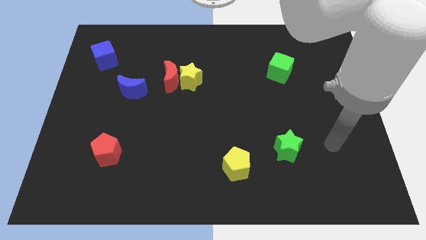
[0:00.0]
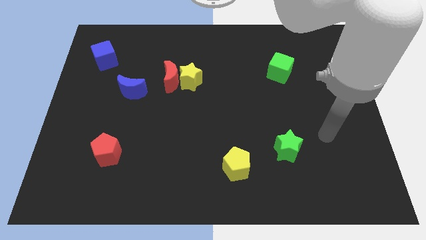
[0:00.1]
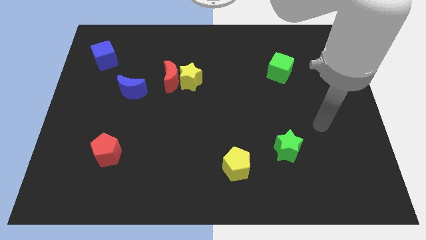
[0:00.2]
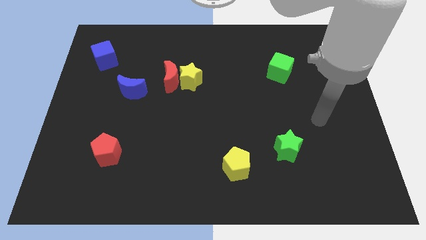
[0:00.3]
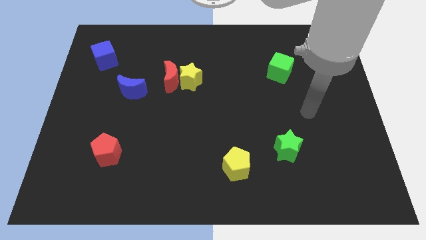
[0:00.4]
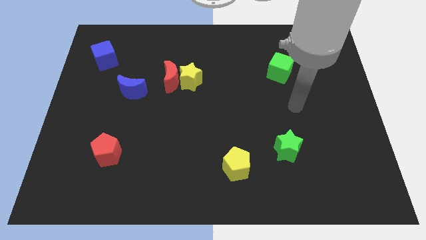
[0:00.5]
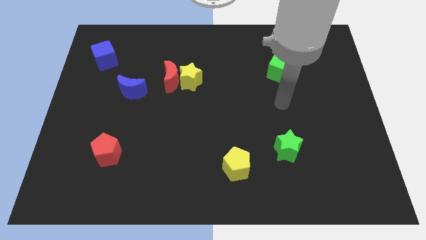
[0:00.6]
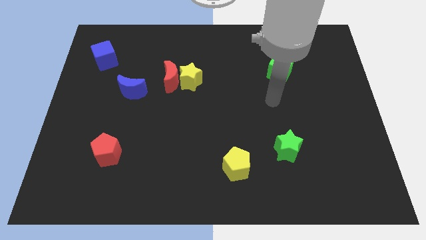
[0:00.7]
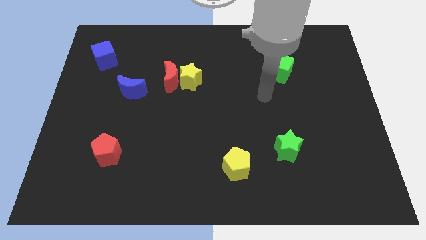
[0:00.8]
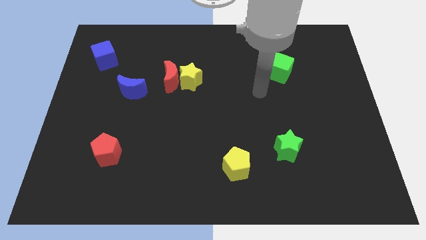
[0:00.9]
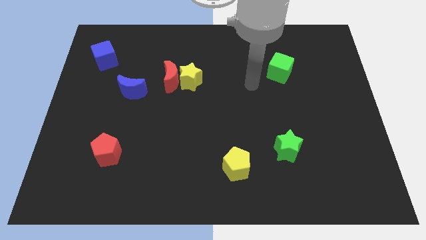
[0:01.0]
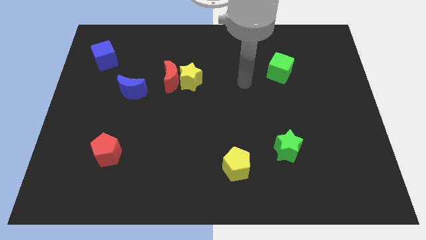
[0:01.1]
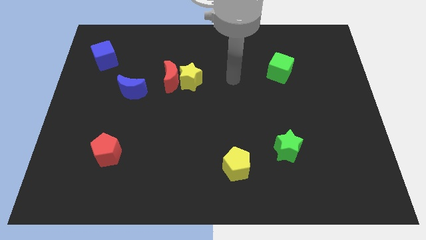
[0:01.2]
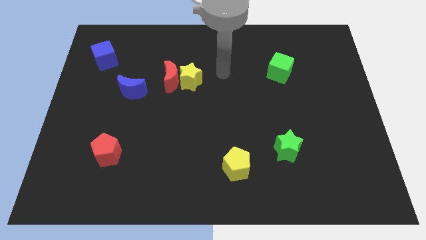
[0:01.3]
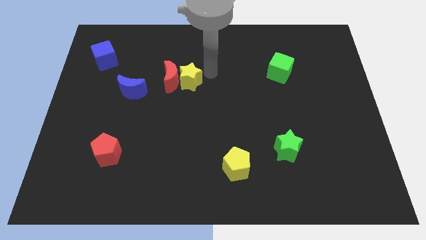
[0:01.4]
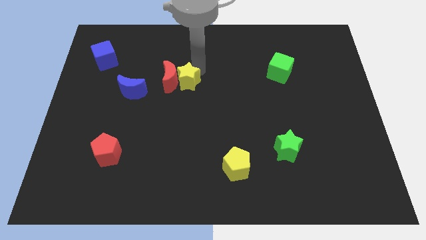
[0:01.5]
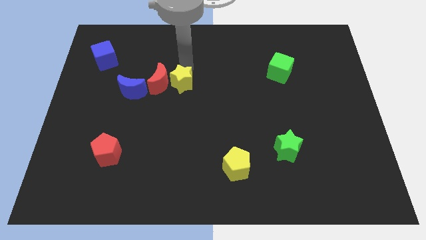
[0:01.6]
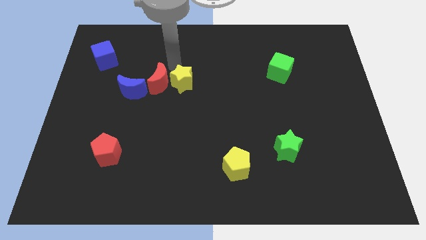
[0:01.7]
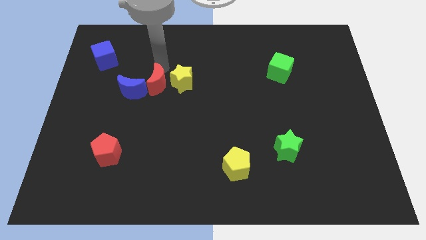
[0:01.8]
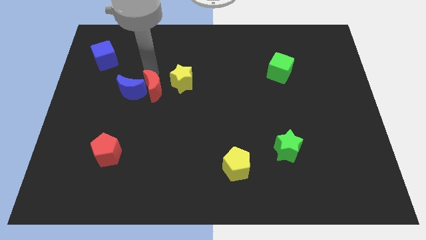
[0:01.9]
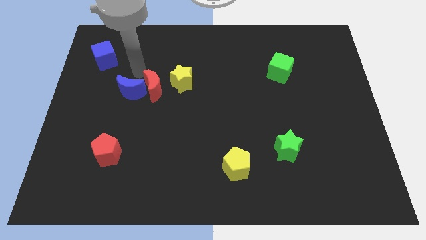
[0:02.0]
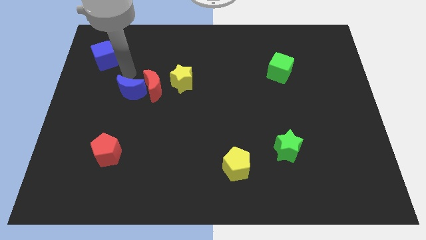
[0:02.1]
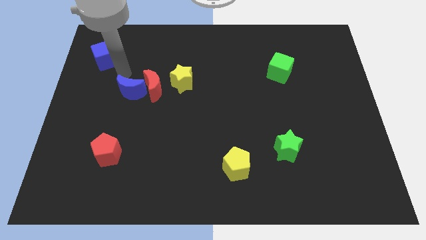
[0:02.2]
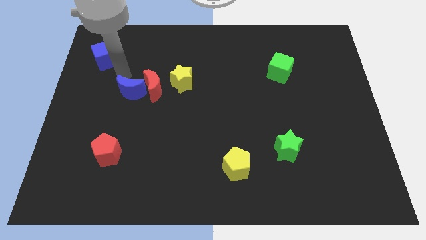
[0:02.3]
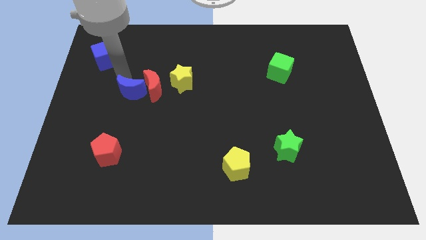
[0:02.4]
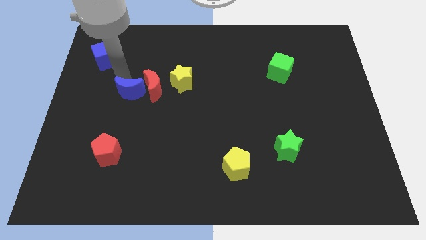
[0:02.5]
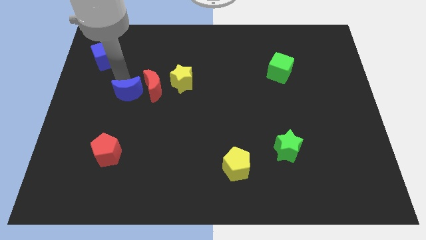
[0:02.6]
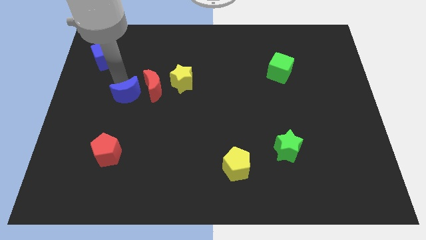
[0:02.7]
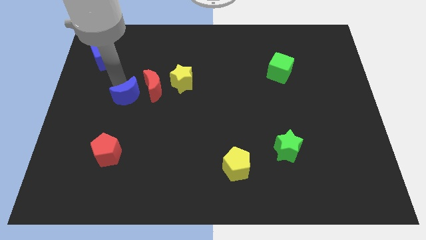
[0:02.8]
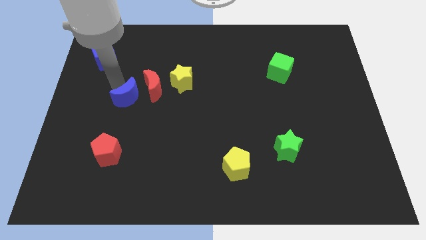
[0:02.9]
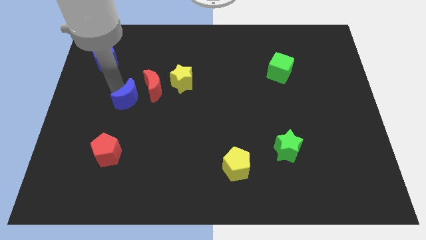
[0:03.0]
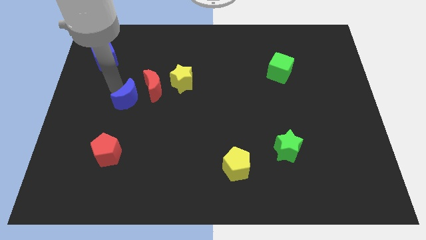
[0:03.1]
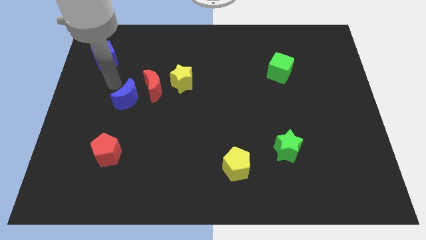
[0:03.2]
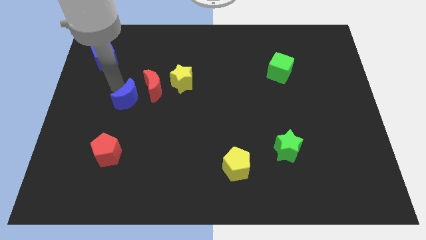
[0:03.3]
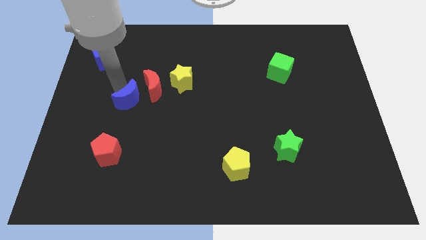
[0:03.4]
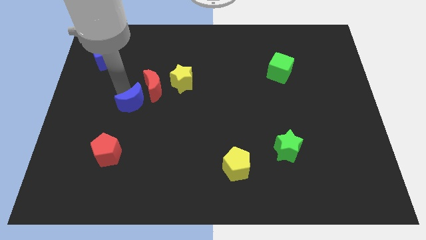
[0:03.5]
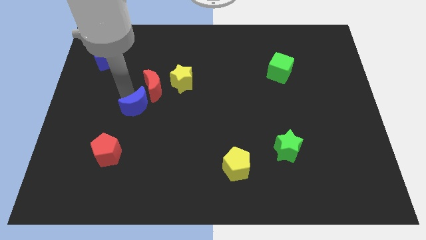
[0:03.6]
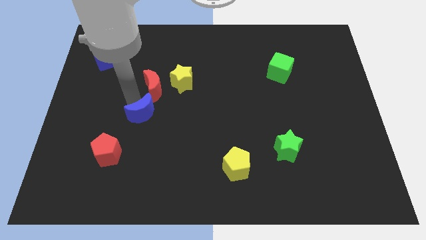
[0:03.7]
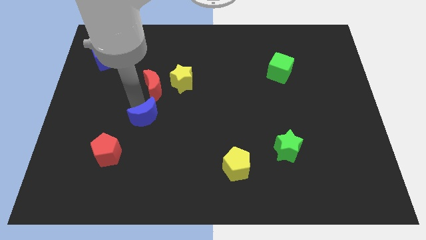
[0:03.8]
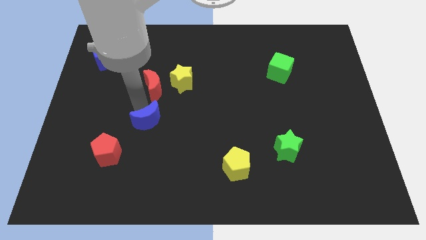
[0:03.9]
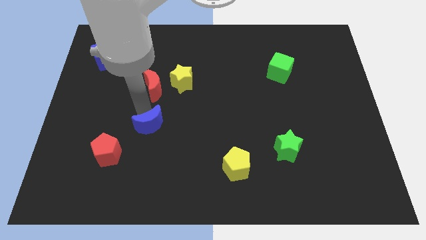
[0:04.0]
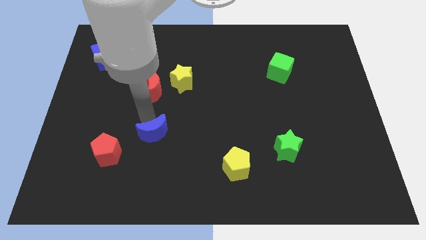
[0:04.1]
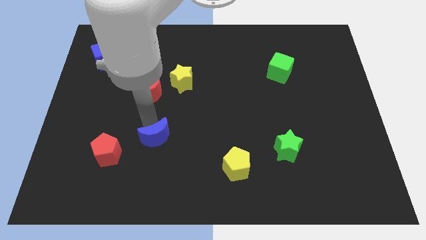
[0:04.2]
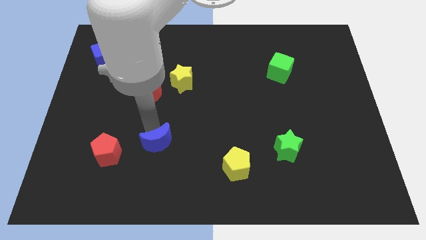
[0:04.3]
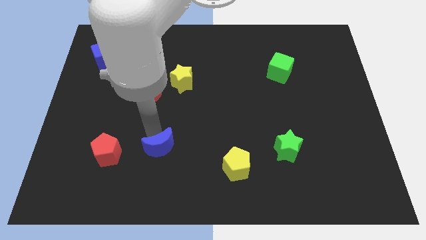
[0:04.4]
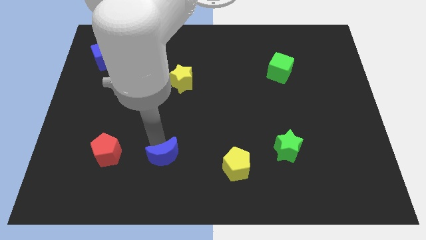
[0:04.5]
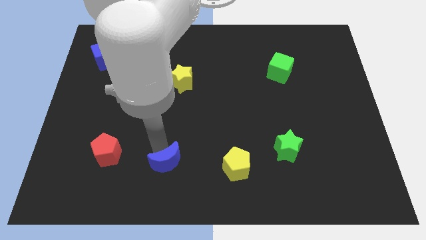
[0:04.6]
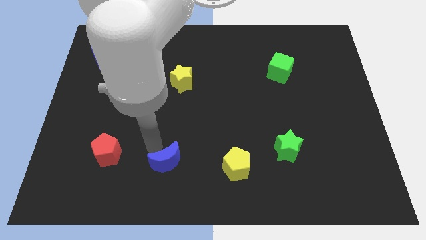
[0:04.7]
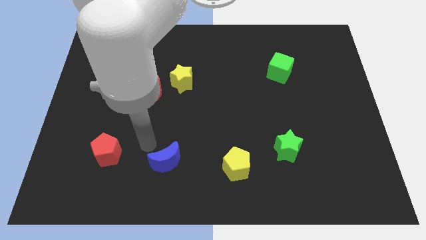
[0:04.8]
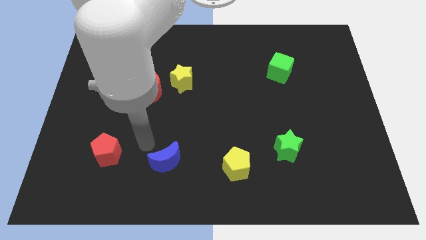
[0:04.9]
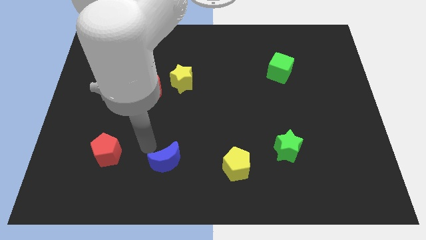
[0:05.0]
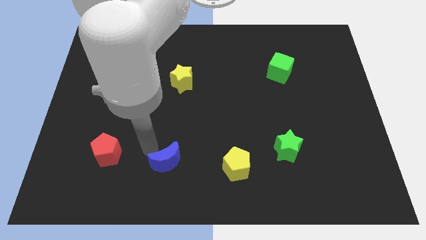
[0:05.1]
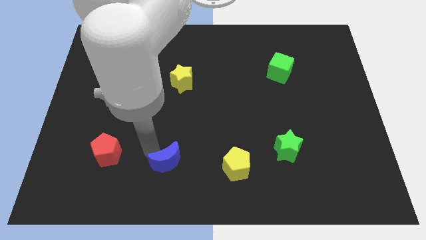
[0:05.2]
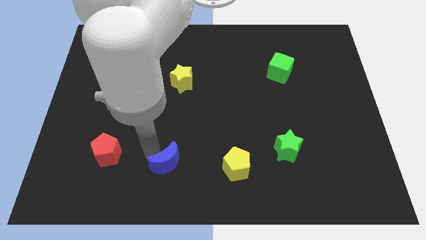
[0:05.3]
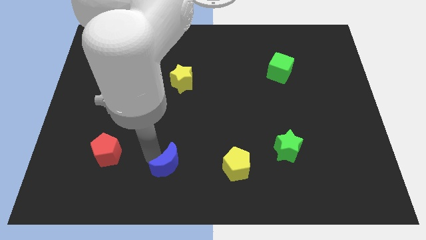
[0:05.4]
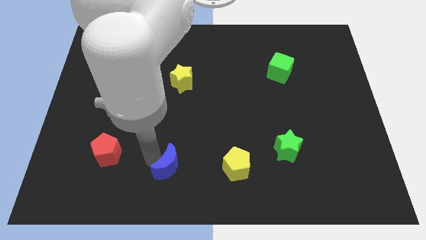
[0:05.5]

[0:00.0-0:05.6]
slide the blue moon to the bottom side

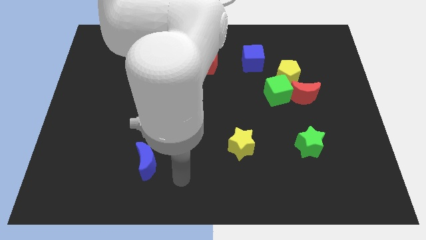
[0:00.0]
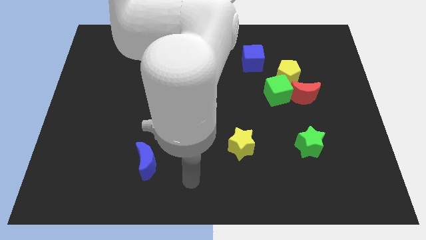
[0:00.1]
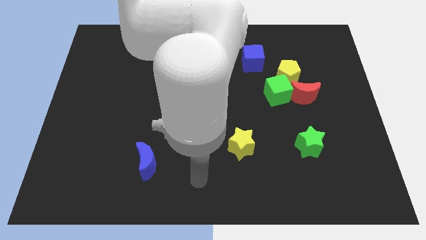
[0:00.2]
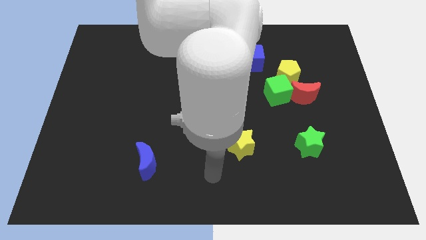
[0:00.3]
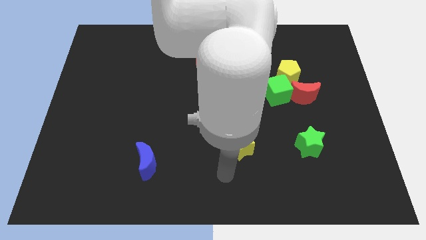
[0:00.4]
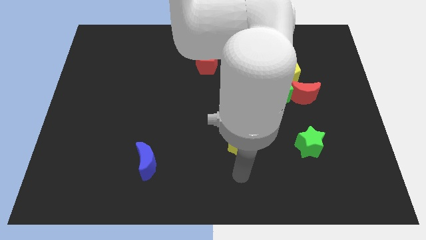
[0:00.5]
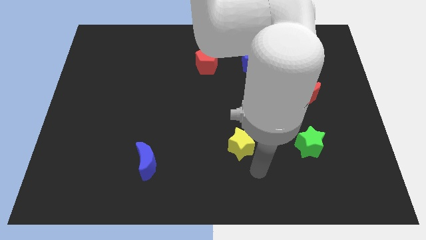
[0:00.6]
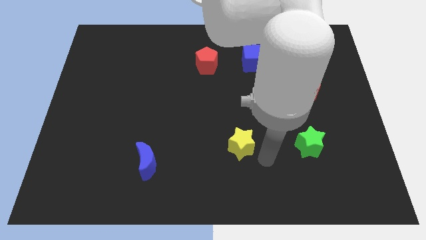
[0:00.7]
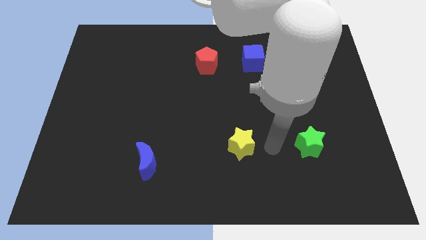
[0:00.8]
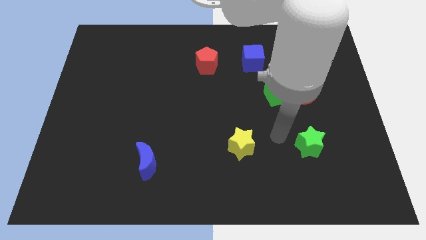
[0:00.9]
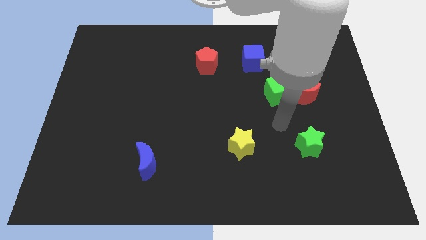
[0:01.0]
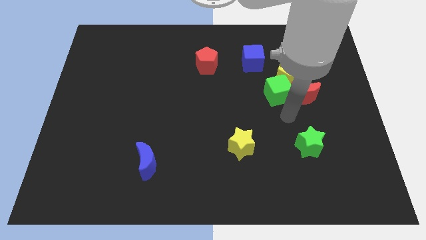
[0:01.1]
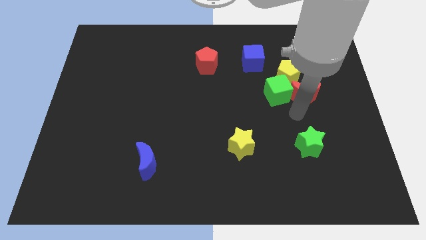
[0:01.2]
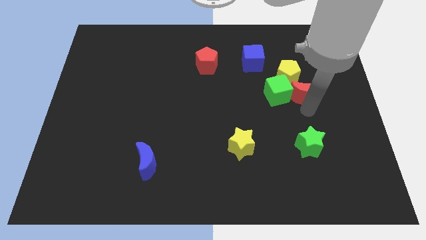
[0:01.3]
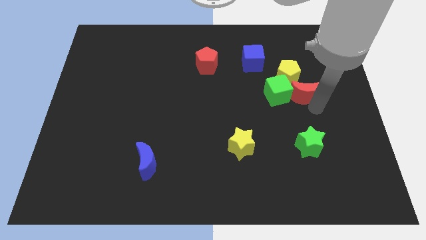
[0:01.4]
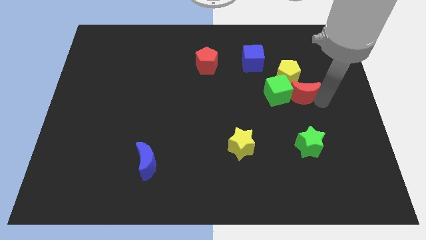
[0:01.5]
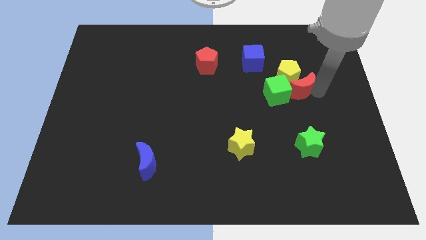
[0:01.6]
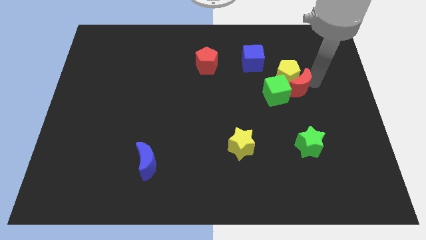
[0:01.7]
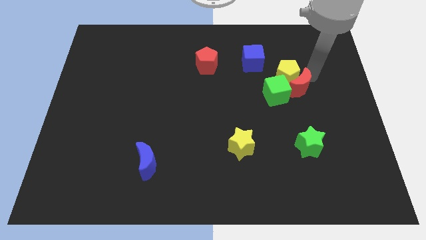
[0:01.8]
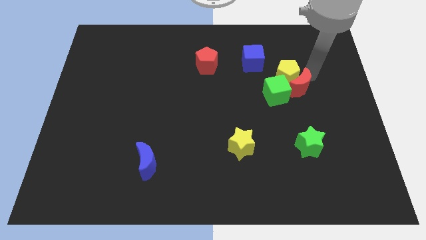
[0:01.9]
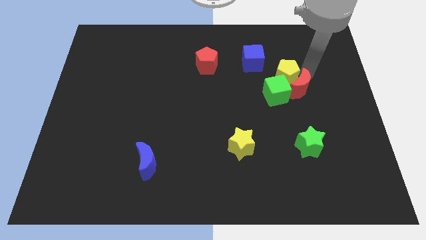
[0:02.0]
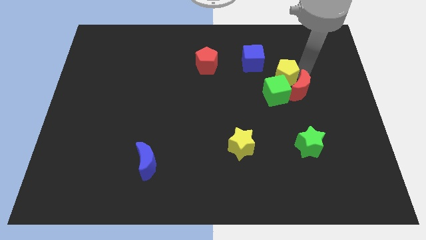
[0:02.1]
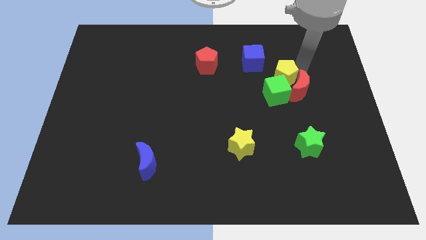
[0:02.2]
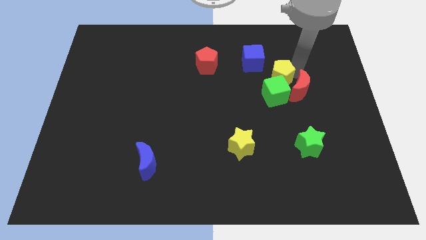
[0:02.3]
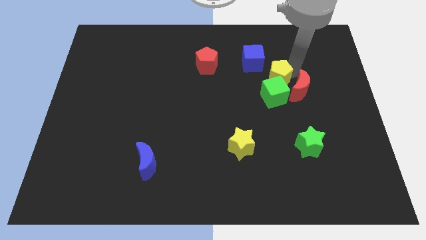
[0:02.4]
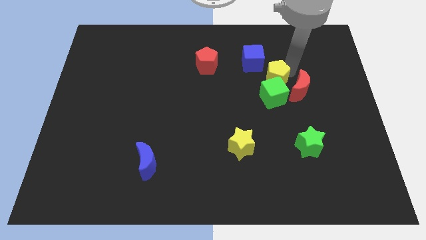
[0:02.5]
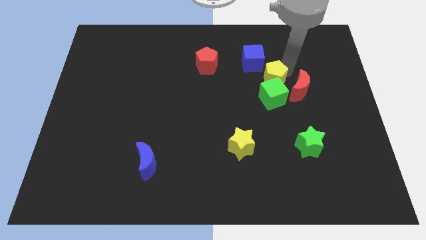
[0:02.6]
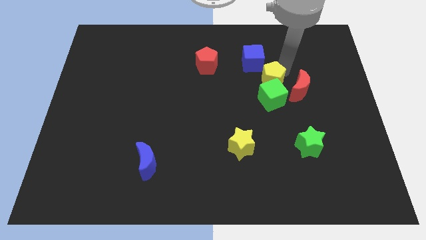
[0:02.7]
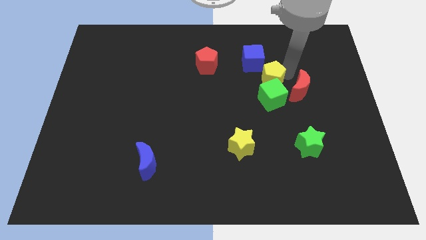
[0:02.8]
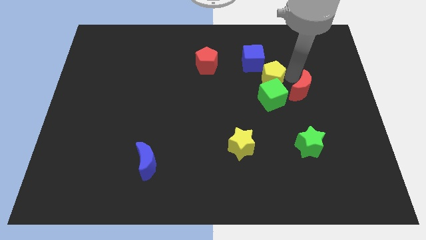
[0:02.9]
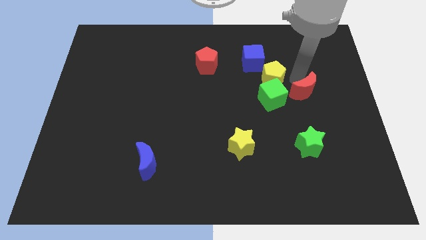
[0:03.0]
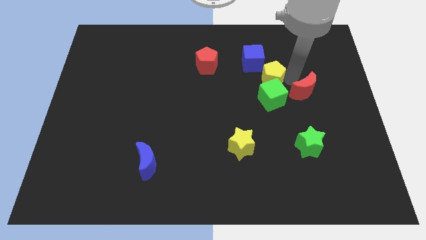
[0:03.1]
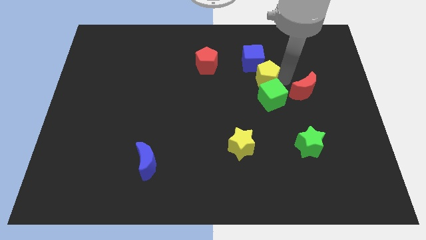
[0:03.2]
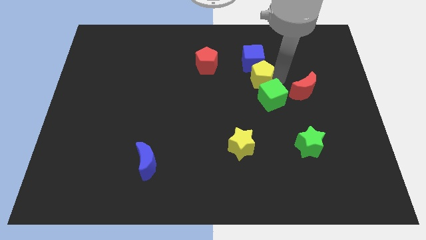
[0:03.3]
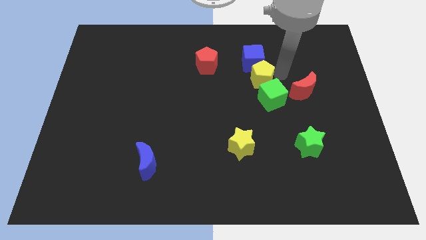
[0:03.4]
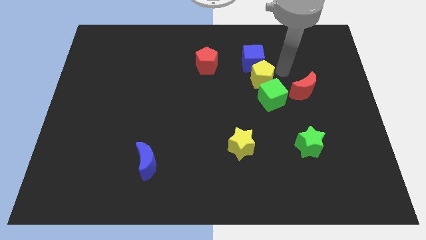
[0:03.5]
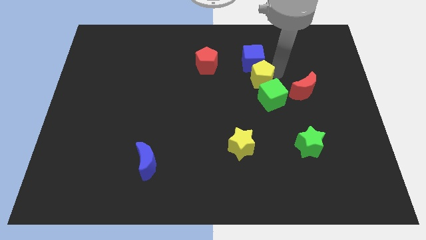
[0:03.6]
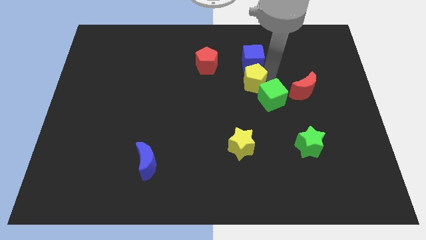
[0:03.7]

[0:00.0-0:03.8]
put the yellow pentagon to the middle of the board
